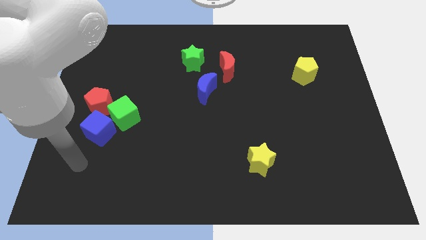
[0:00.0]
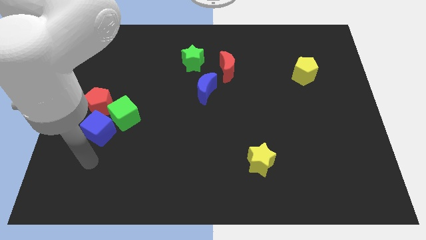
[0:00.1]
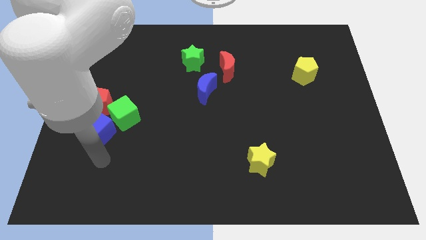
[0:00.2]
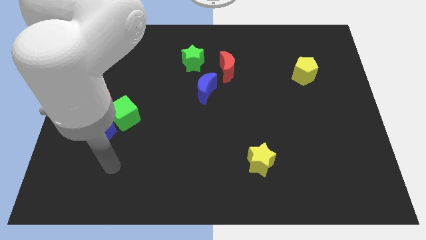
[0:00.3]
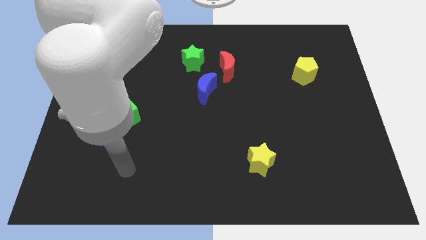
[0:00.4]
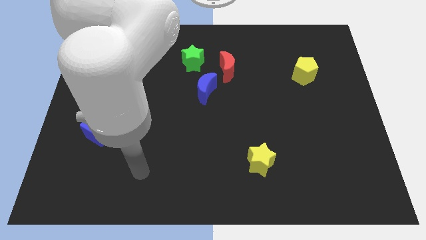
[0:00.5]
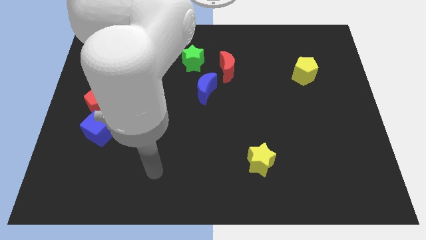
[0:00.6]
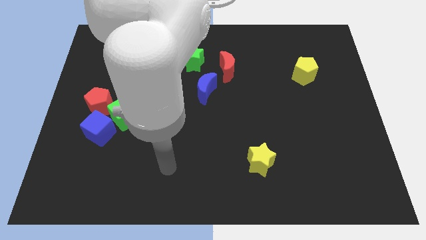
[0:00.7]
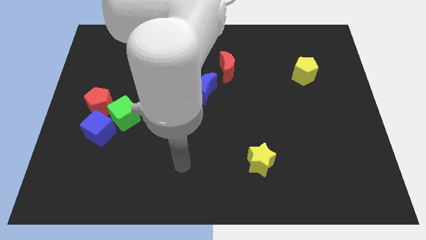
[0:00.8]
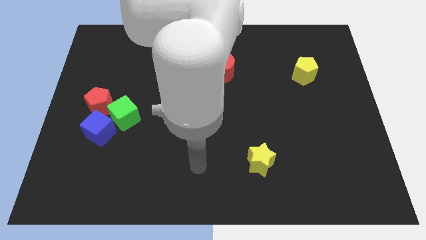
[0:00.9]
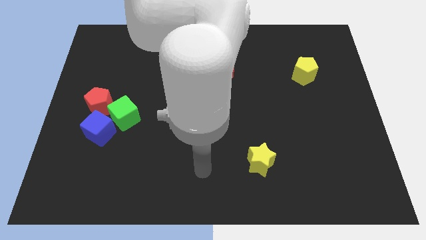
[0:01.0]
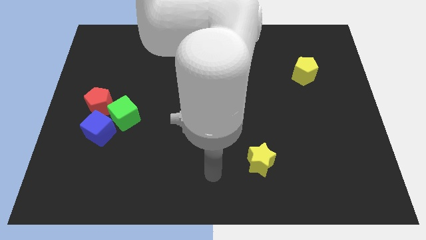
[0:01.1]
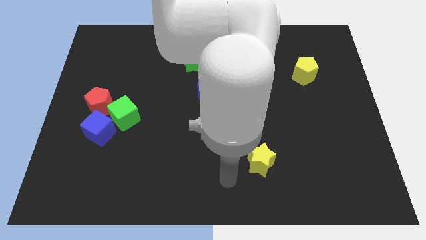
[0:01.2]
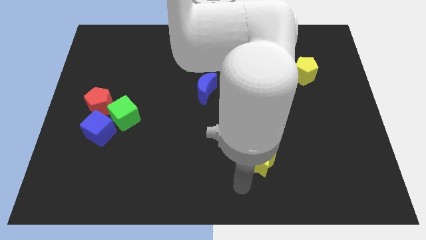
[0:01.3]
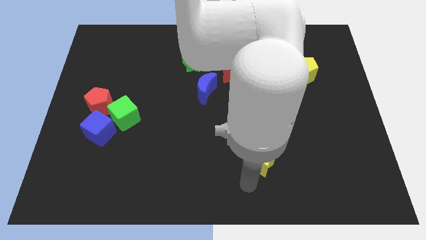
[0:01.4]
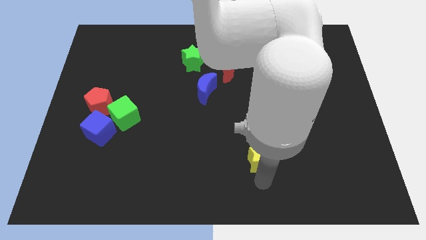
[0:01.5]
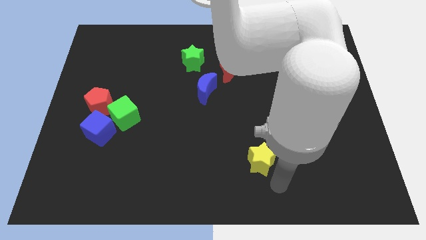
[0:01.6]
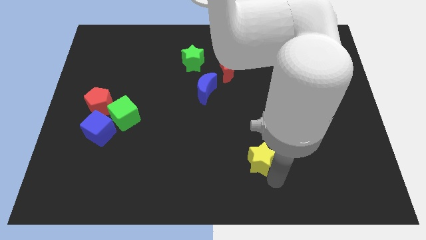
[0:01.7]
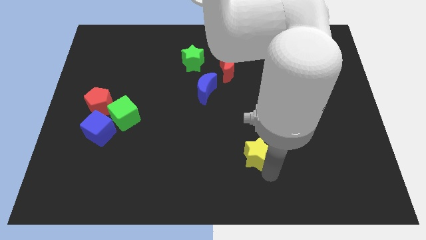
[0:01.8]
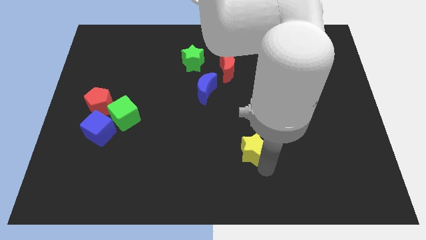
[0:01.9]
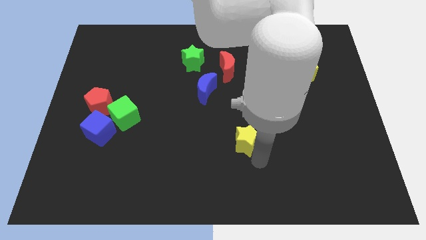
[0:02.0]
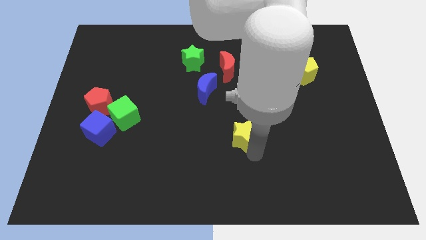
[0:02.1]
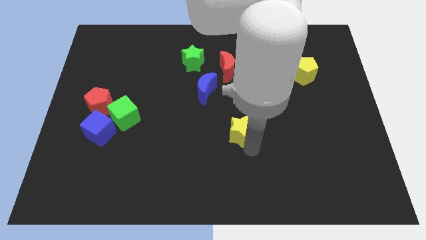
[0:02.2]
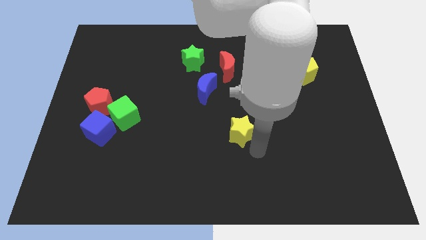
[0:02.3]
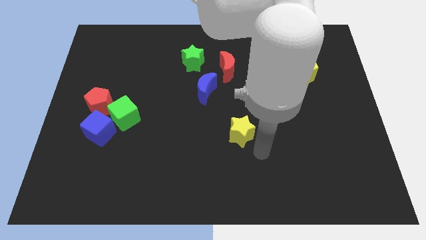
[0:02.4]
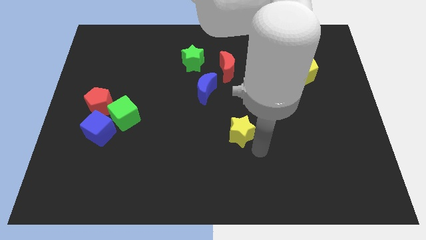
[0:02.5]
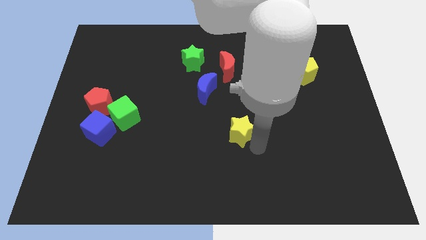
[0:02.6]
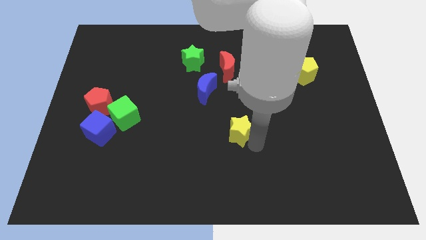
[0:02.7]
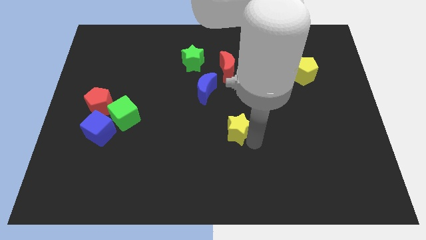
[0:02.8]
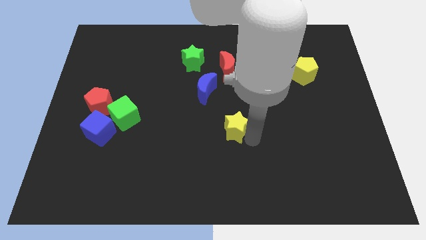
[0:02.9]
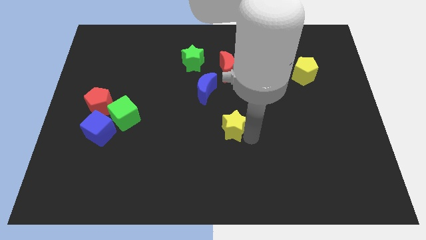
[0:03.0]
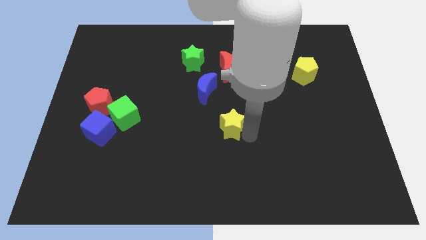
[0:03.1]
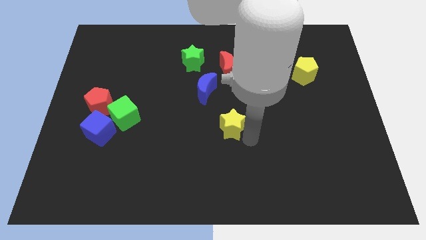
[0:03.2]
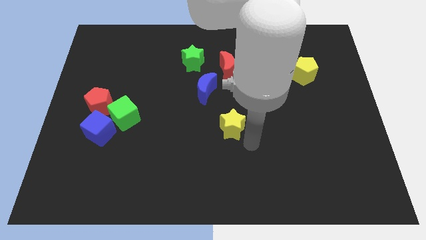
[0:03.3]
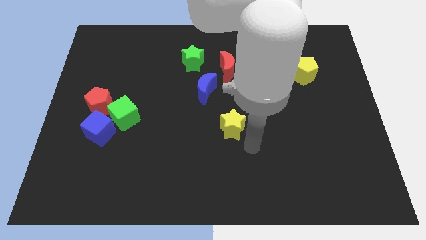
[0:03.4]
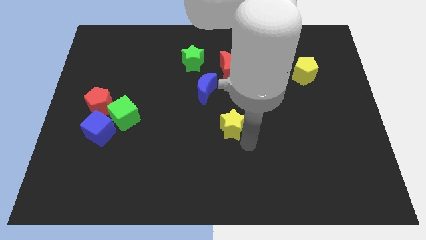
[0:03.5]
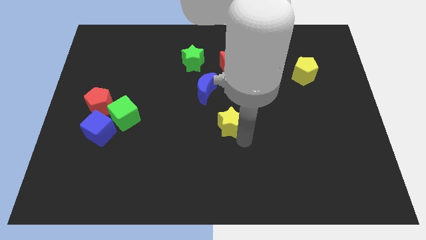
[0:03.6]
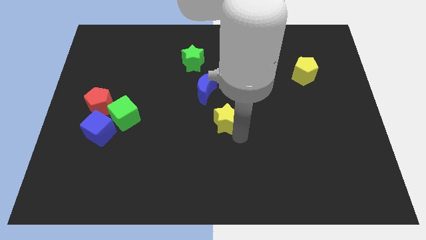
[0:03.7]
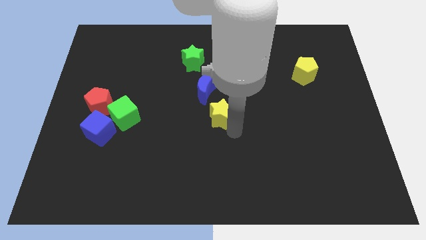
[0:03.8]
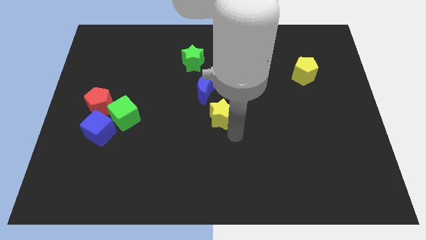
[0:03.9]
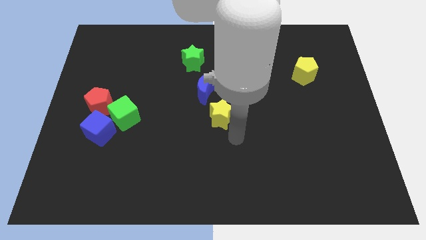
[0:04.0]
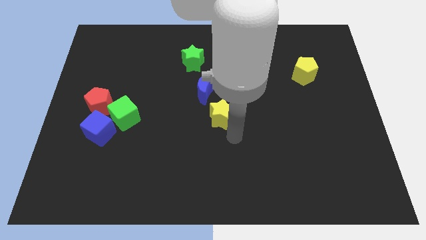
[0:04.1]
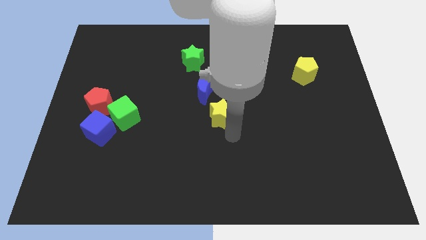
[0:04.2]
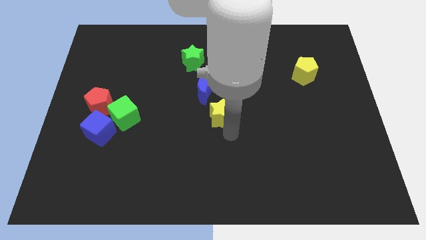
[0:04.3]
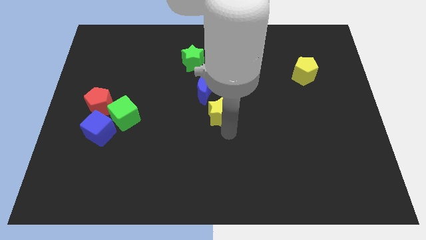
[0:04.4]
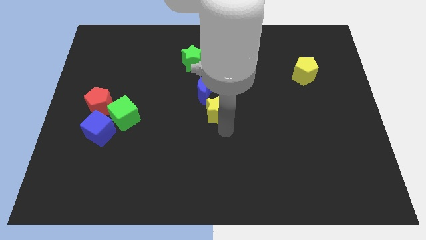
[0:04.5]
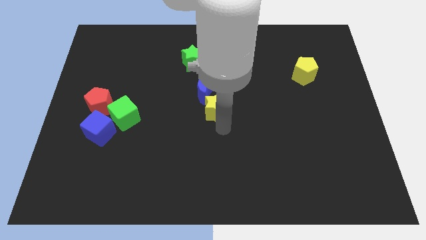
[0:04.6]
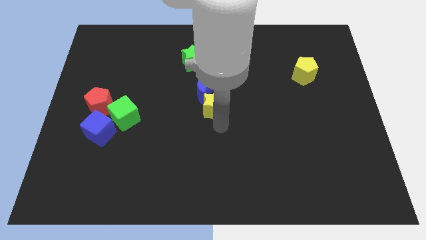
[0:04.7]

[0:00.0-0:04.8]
move the yellow star towards the blue moon

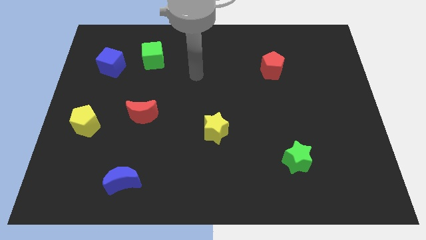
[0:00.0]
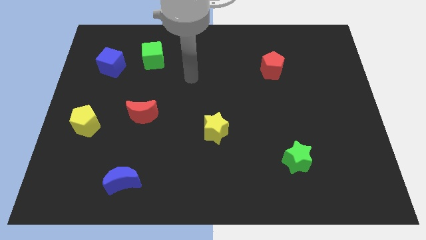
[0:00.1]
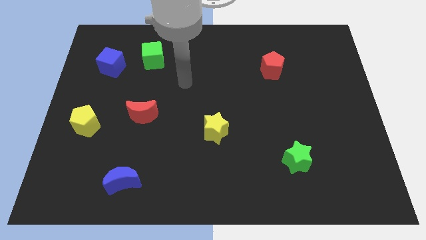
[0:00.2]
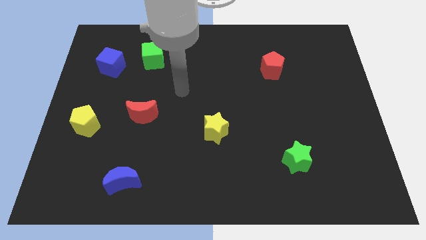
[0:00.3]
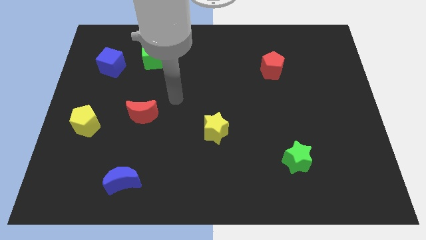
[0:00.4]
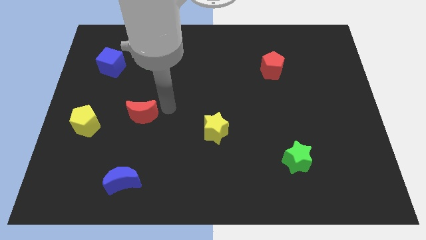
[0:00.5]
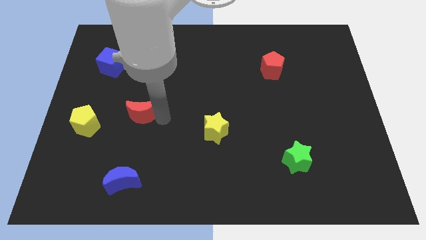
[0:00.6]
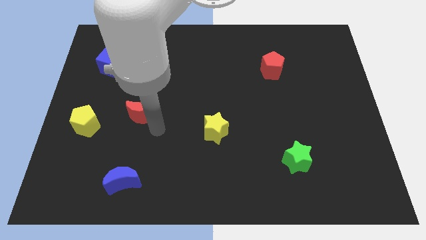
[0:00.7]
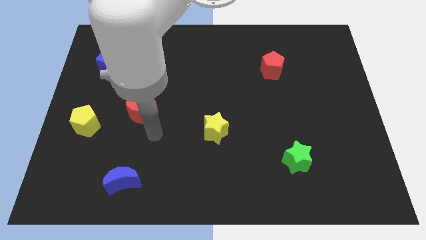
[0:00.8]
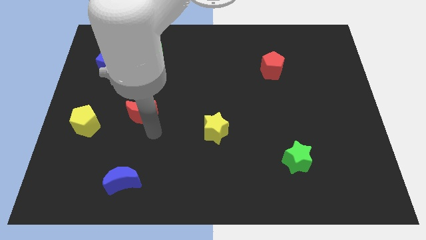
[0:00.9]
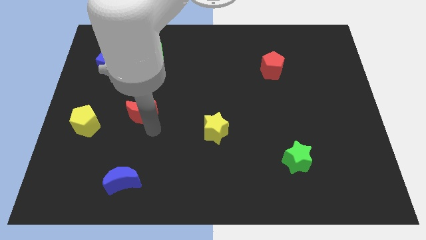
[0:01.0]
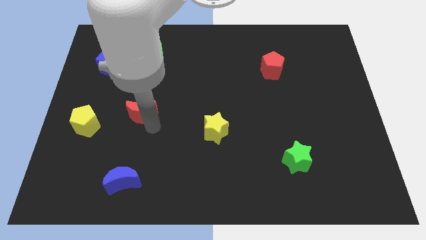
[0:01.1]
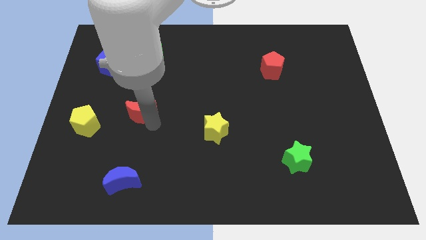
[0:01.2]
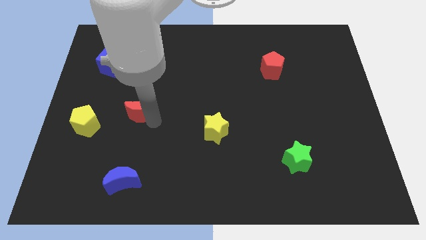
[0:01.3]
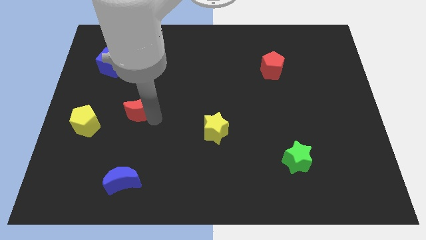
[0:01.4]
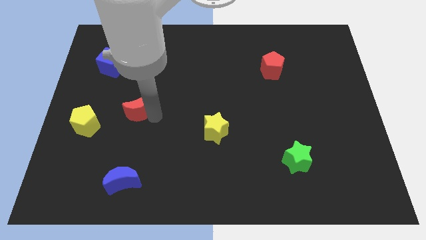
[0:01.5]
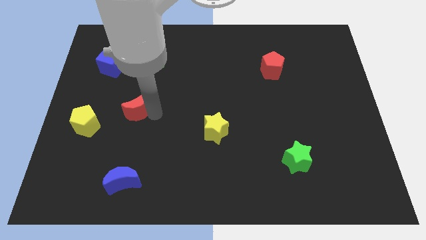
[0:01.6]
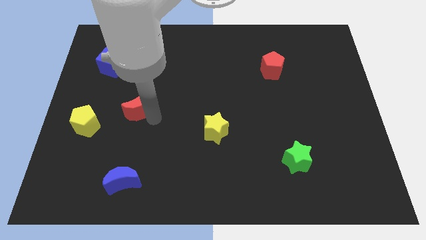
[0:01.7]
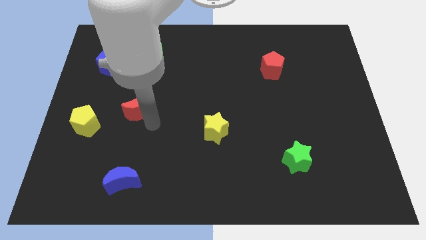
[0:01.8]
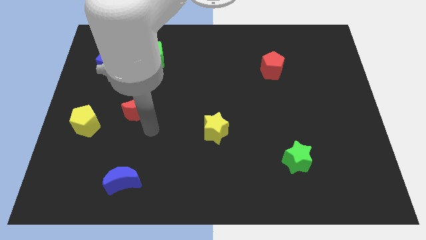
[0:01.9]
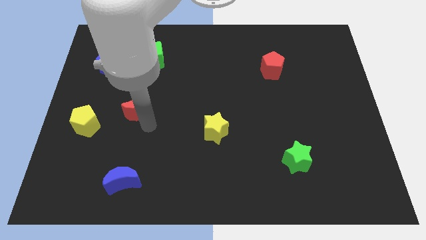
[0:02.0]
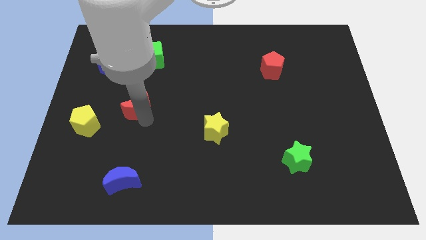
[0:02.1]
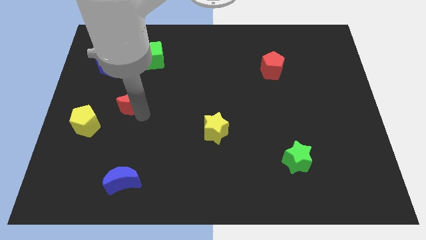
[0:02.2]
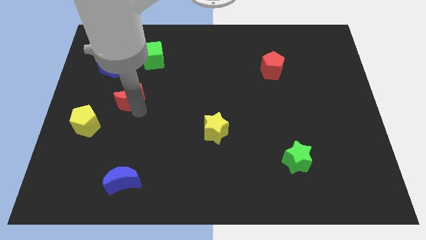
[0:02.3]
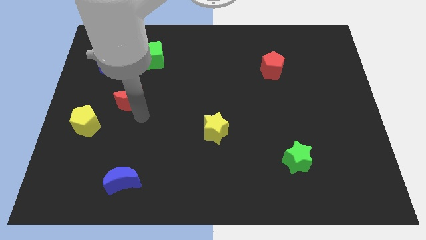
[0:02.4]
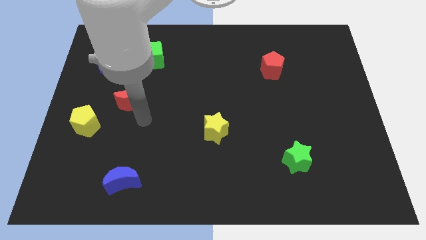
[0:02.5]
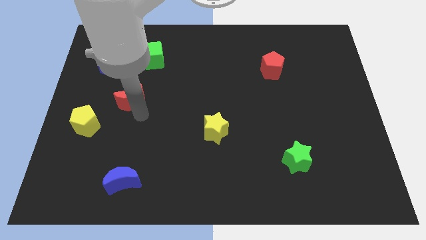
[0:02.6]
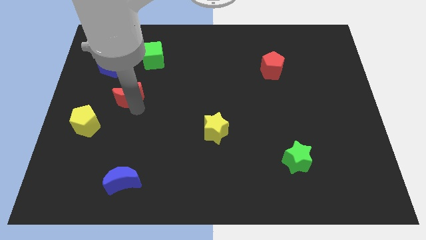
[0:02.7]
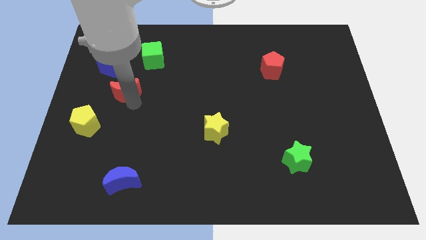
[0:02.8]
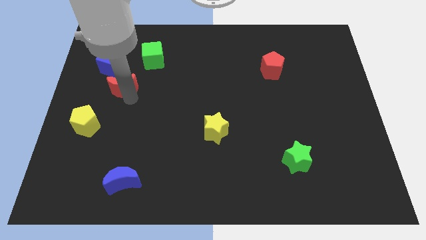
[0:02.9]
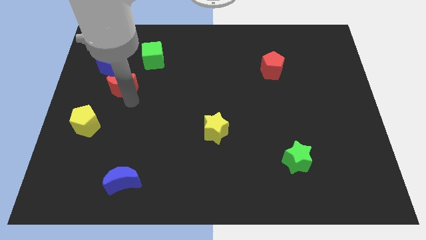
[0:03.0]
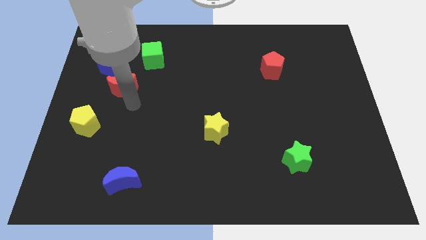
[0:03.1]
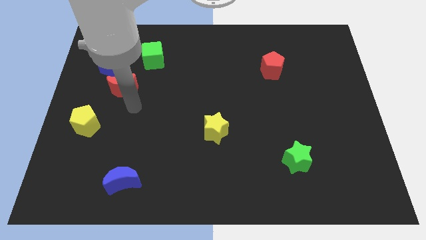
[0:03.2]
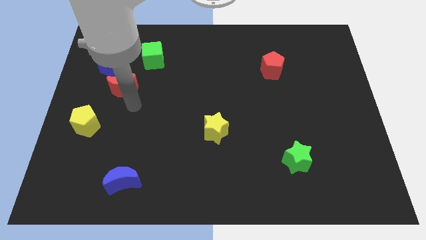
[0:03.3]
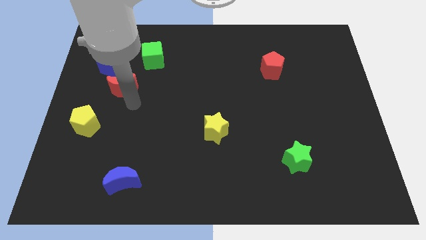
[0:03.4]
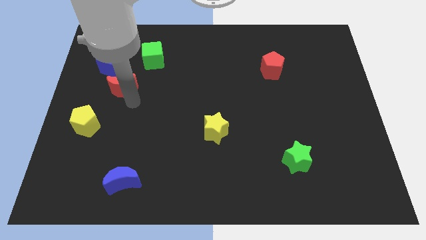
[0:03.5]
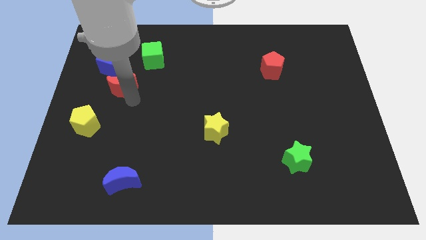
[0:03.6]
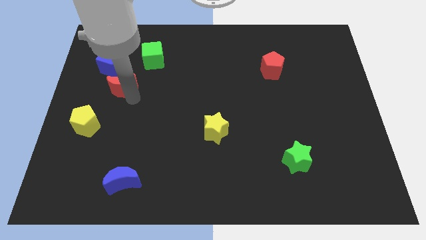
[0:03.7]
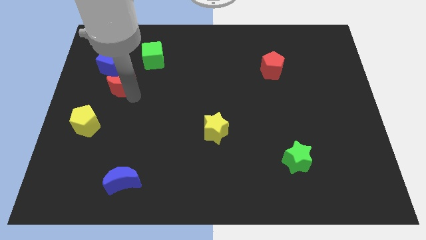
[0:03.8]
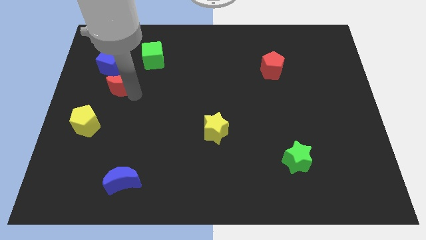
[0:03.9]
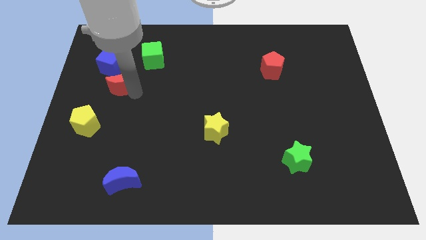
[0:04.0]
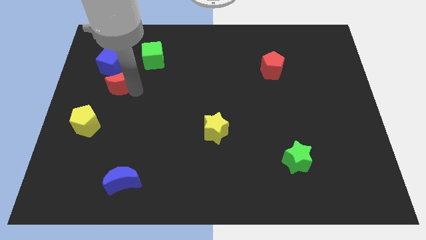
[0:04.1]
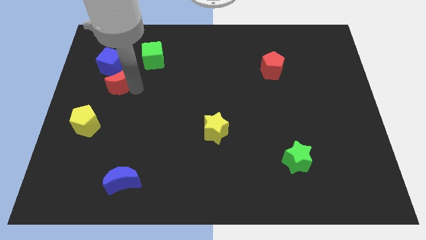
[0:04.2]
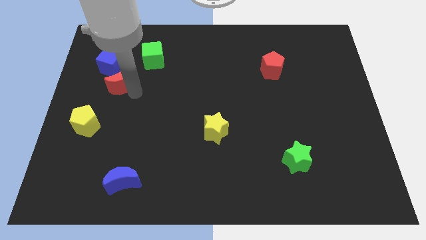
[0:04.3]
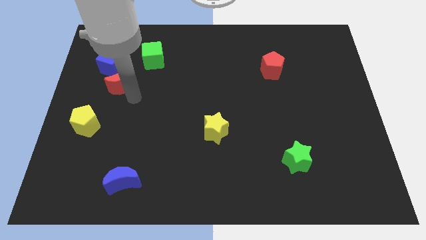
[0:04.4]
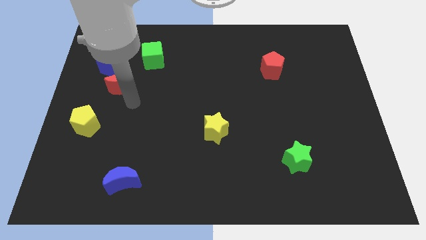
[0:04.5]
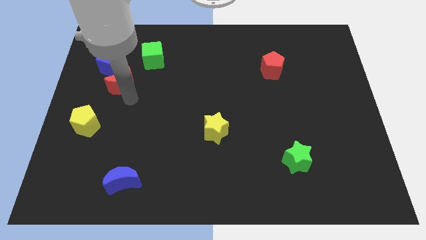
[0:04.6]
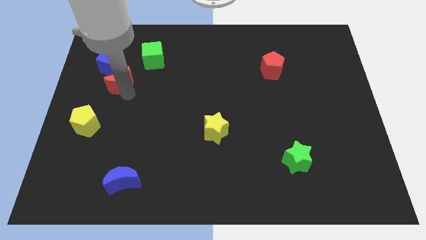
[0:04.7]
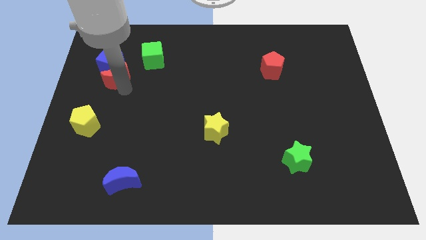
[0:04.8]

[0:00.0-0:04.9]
move the red moon to the blue cube
